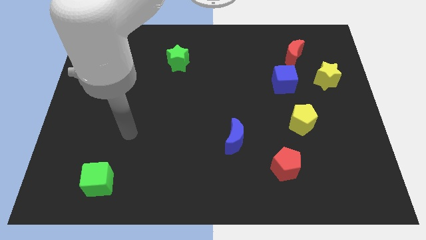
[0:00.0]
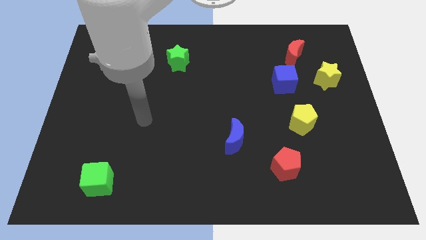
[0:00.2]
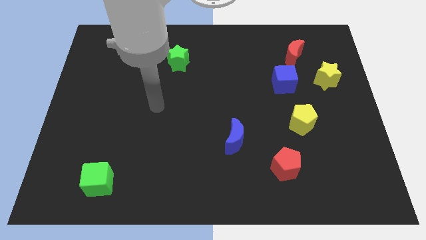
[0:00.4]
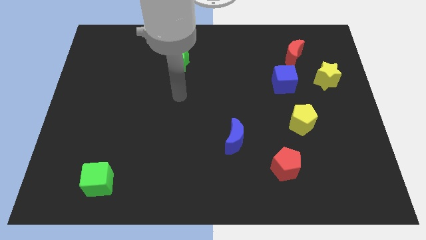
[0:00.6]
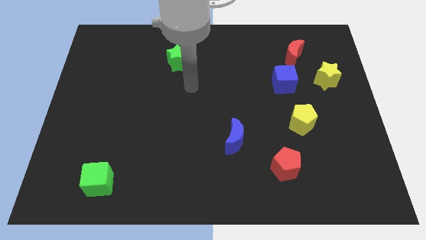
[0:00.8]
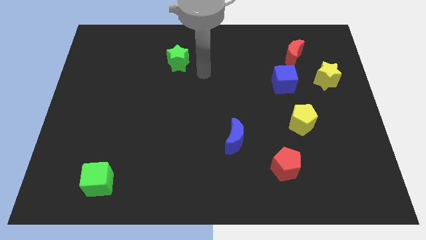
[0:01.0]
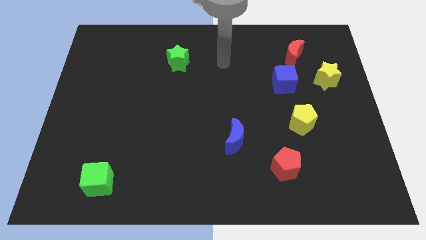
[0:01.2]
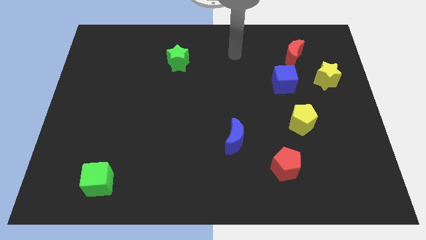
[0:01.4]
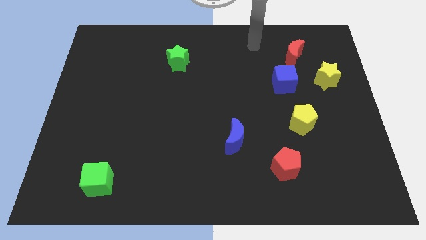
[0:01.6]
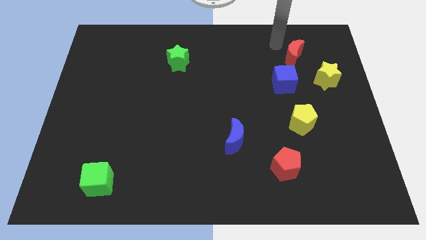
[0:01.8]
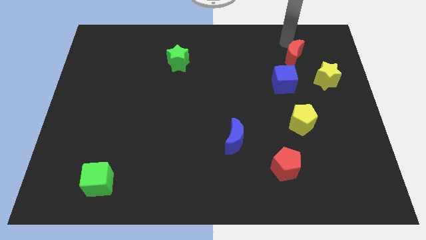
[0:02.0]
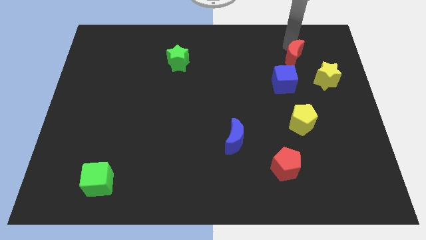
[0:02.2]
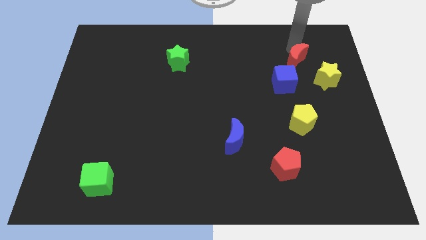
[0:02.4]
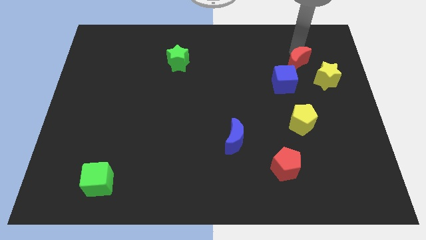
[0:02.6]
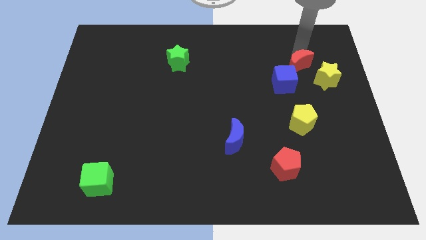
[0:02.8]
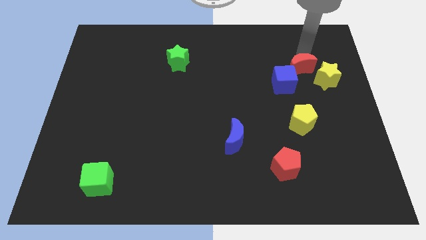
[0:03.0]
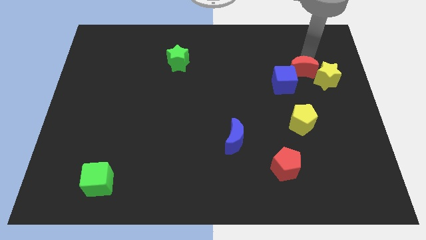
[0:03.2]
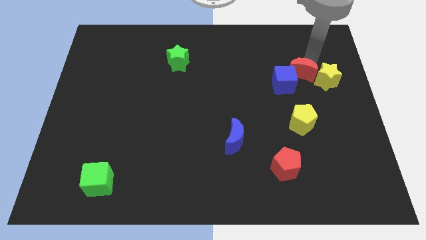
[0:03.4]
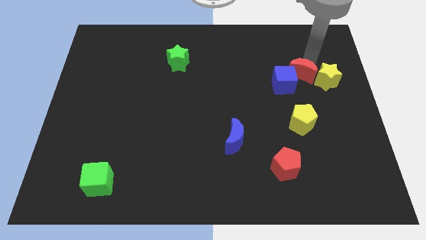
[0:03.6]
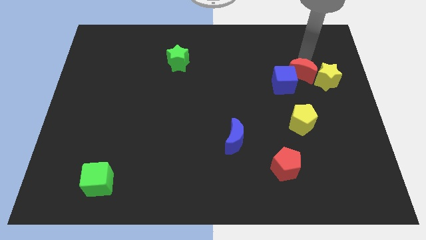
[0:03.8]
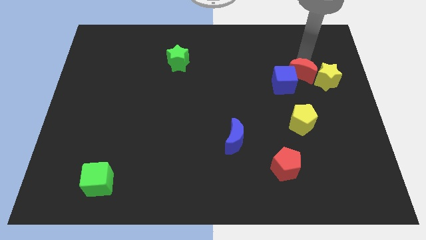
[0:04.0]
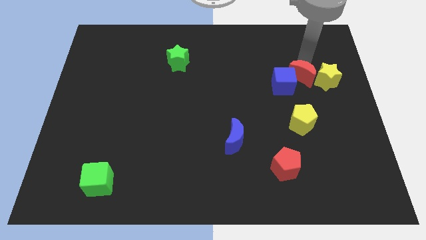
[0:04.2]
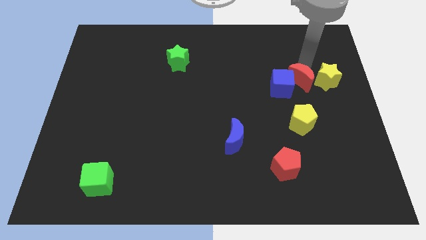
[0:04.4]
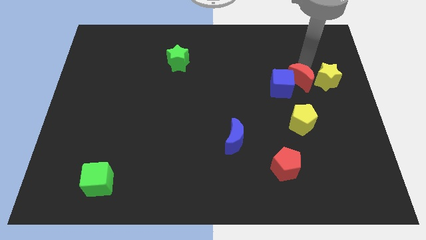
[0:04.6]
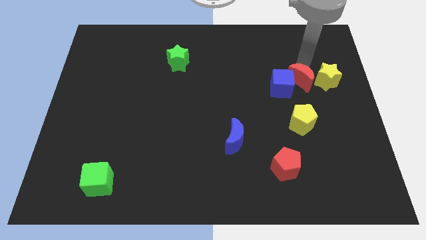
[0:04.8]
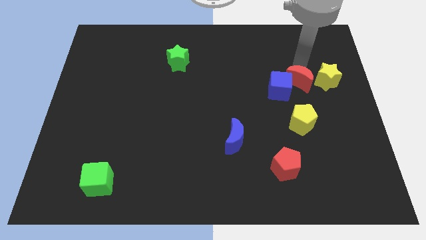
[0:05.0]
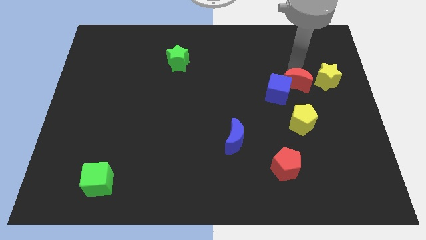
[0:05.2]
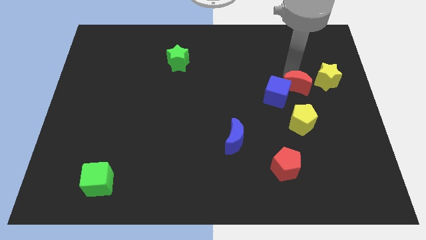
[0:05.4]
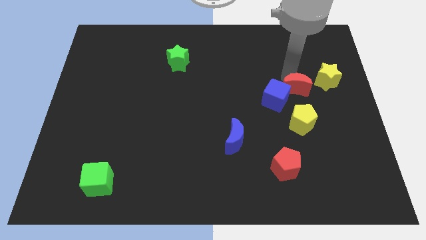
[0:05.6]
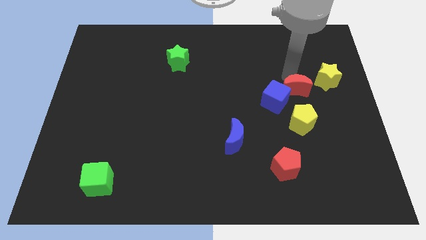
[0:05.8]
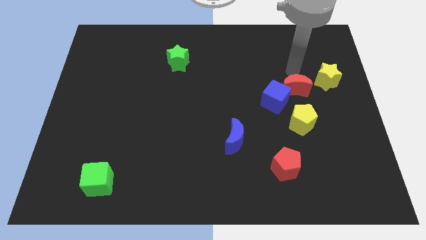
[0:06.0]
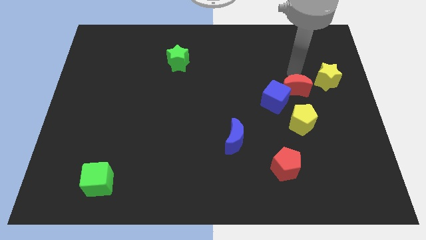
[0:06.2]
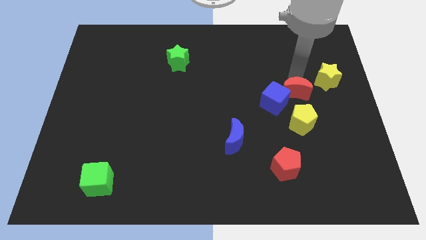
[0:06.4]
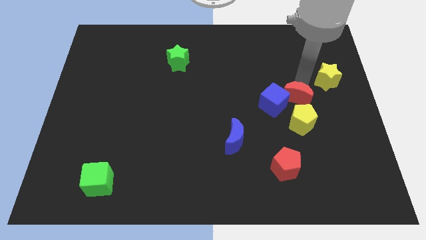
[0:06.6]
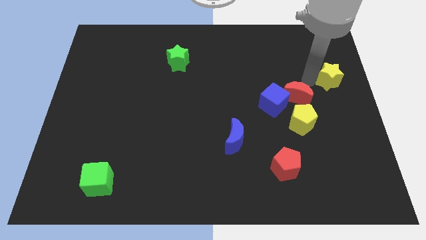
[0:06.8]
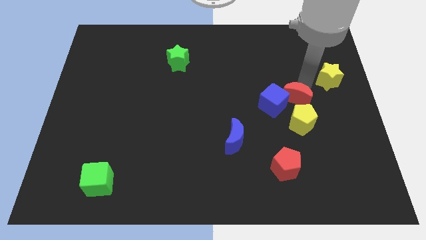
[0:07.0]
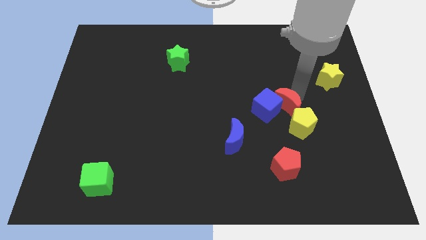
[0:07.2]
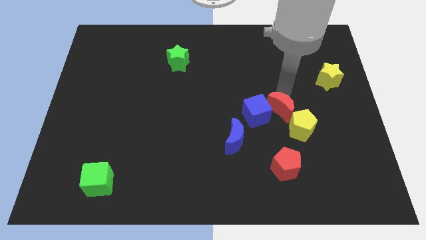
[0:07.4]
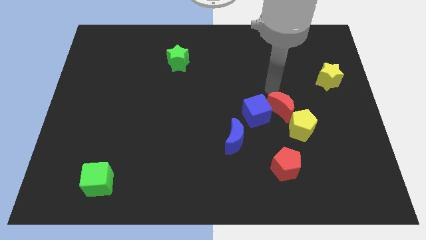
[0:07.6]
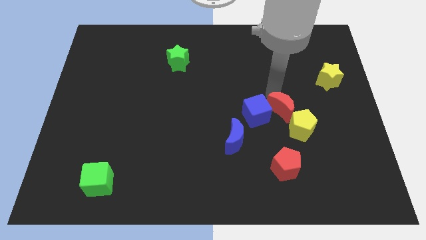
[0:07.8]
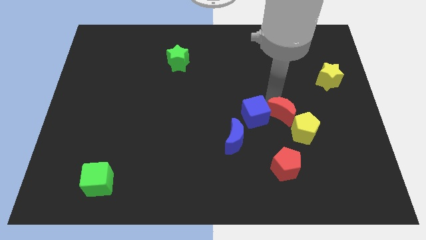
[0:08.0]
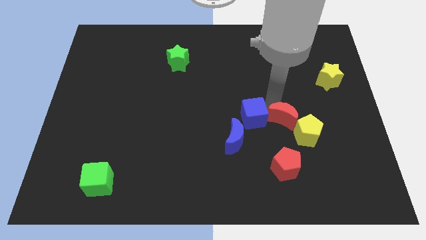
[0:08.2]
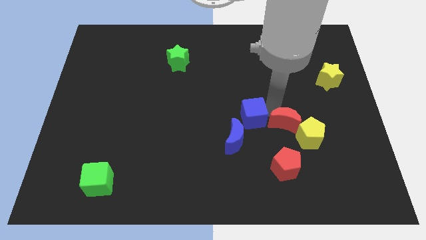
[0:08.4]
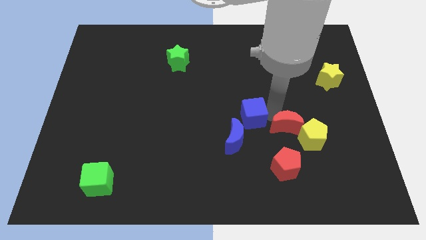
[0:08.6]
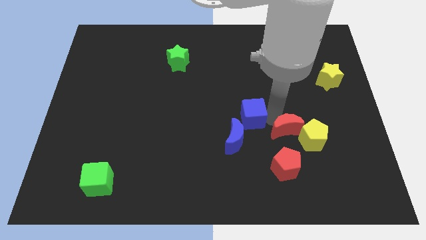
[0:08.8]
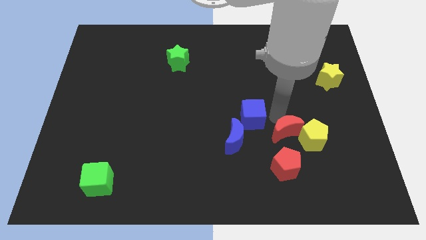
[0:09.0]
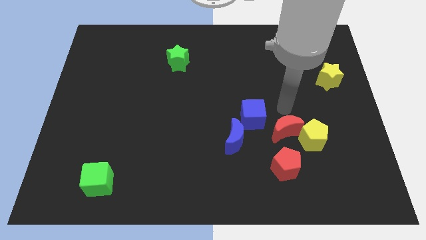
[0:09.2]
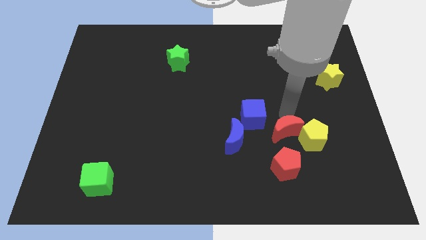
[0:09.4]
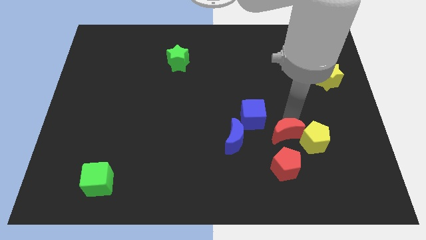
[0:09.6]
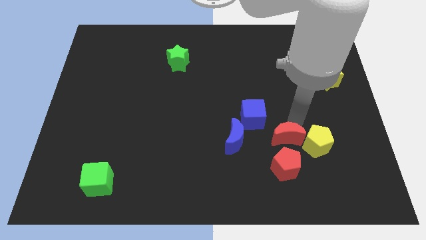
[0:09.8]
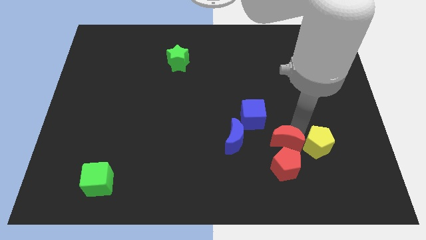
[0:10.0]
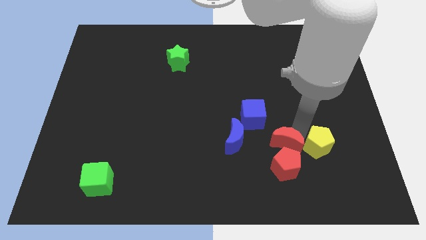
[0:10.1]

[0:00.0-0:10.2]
push the red moon towards the red pentagon
